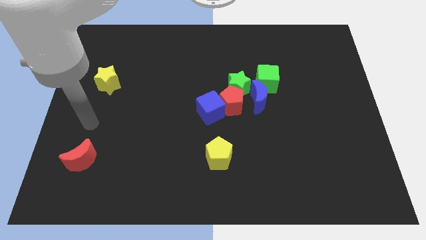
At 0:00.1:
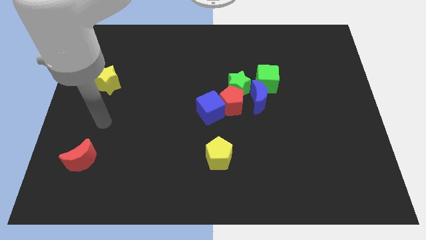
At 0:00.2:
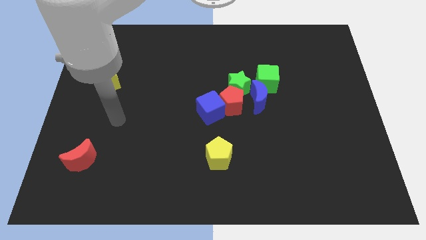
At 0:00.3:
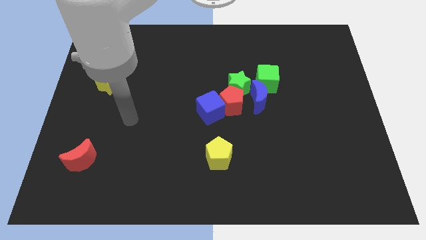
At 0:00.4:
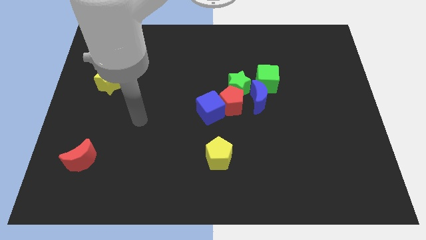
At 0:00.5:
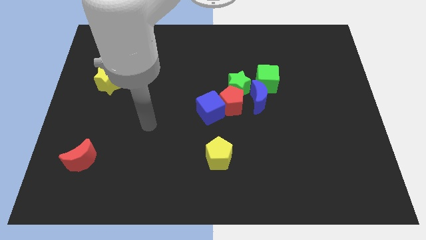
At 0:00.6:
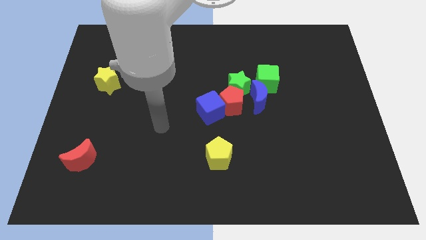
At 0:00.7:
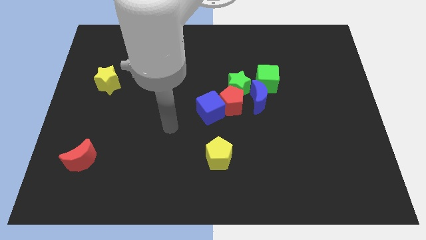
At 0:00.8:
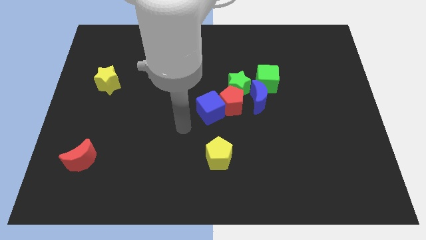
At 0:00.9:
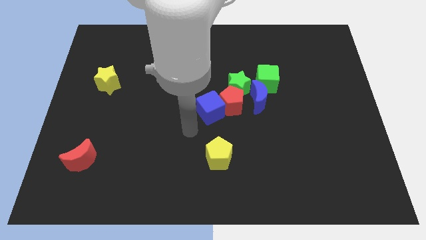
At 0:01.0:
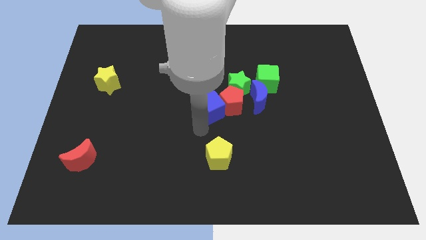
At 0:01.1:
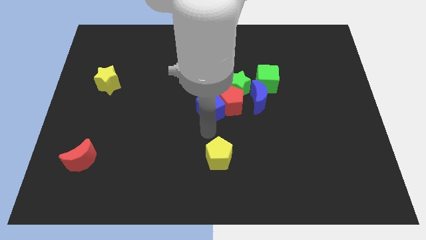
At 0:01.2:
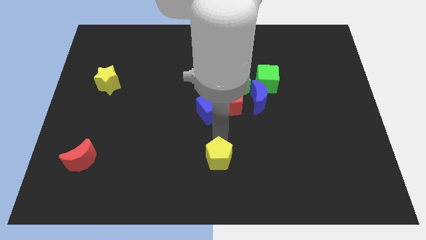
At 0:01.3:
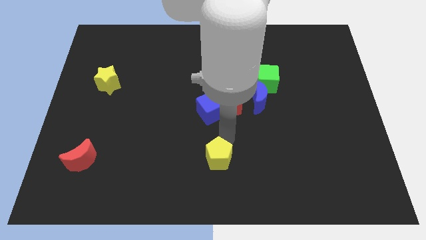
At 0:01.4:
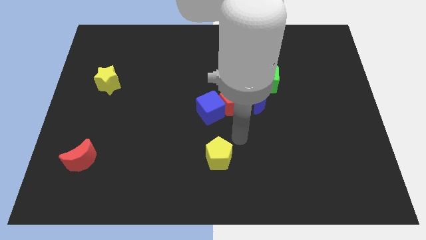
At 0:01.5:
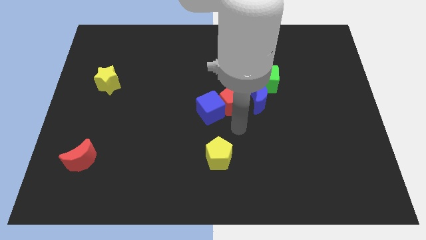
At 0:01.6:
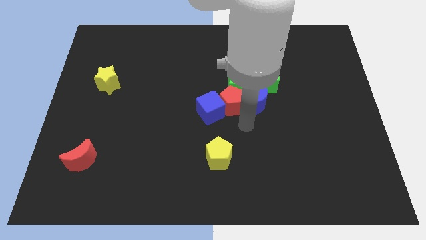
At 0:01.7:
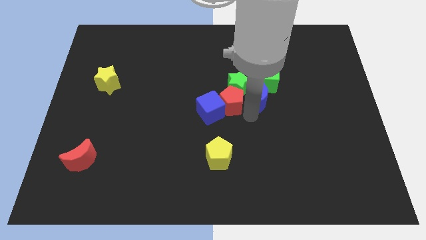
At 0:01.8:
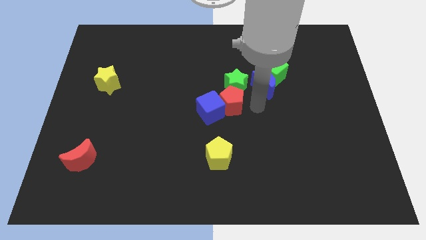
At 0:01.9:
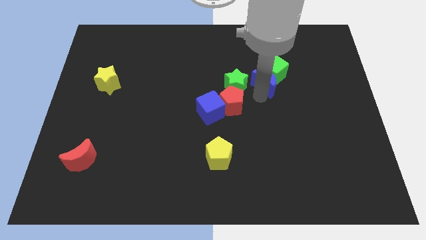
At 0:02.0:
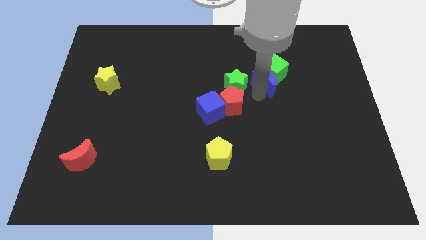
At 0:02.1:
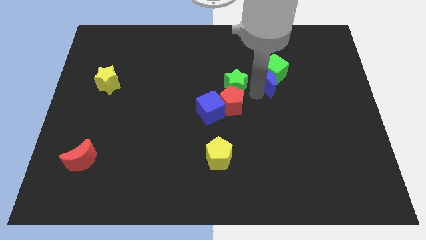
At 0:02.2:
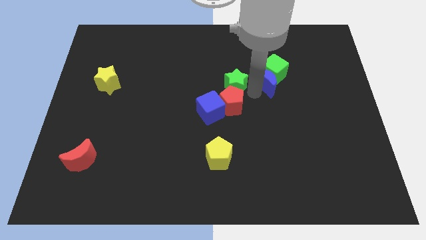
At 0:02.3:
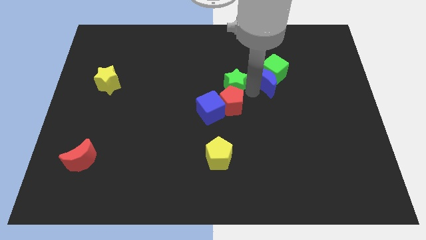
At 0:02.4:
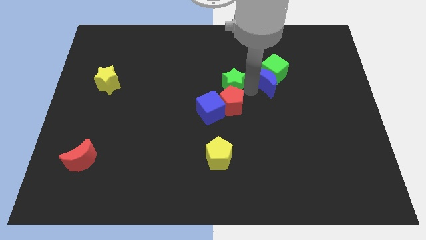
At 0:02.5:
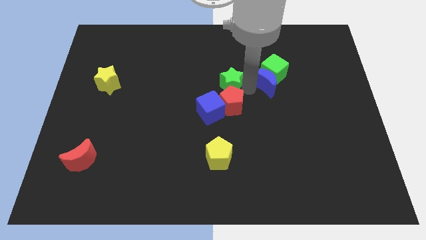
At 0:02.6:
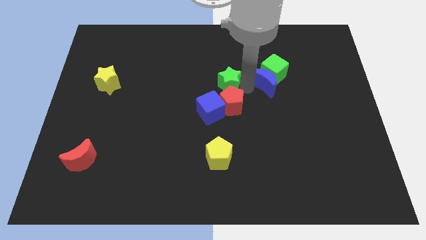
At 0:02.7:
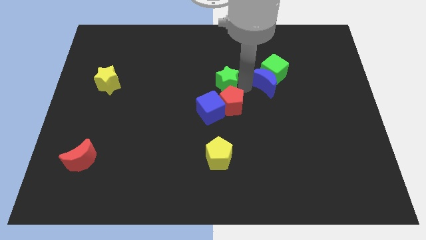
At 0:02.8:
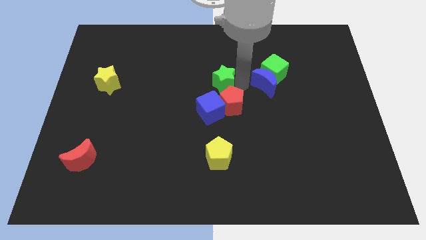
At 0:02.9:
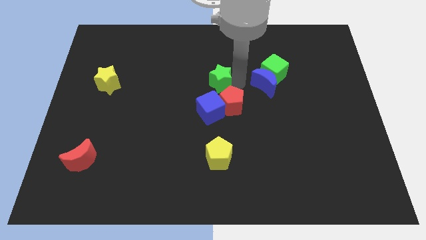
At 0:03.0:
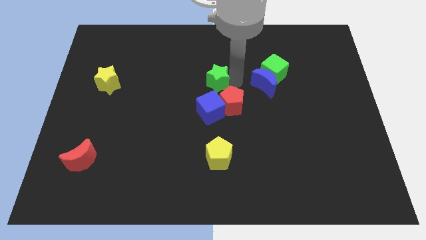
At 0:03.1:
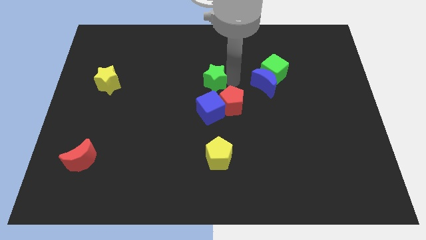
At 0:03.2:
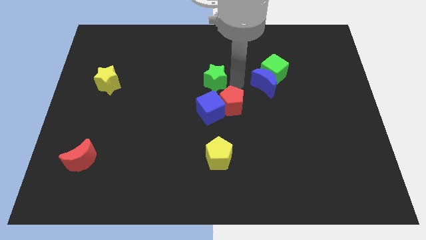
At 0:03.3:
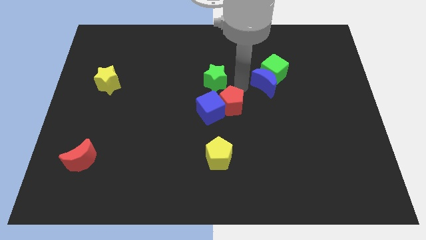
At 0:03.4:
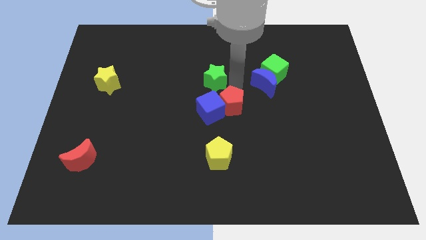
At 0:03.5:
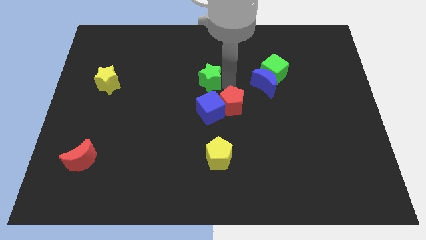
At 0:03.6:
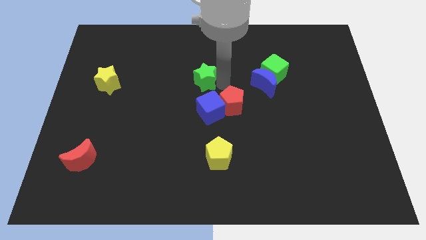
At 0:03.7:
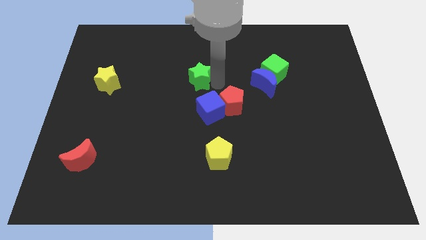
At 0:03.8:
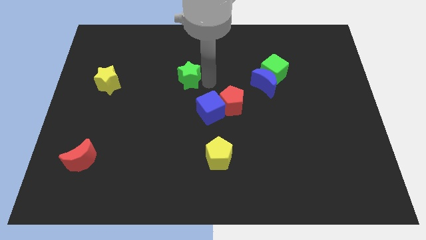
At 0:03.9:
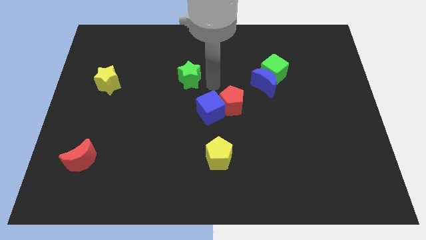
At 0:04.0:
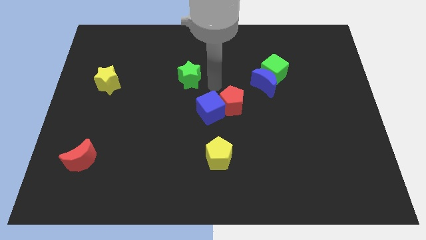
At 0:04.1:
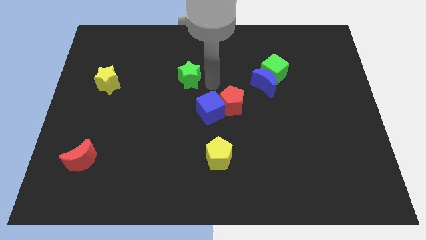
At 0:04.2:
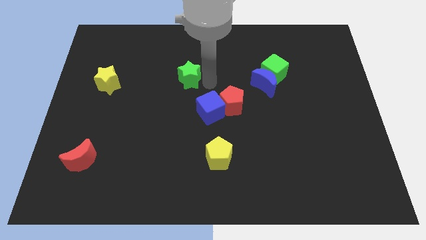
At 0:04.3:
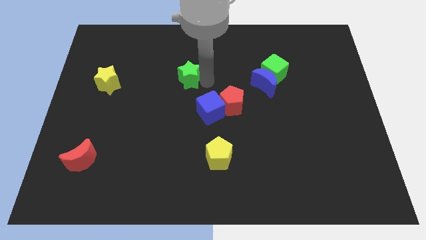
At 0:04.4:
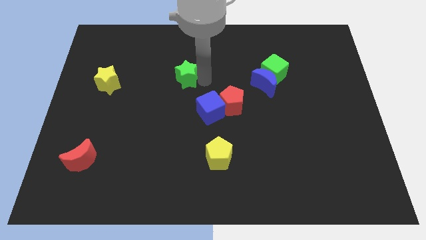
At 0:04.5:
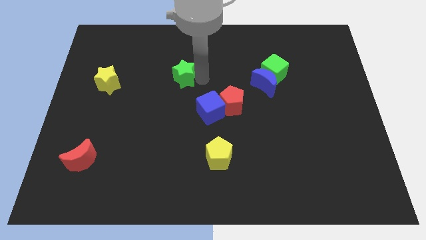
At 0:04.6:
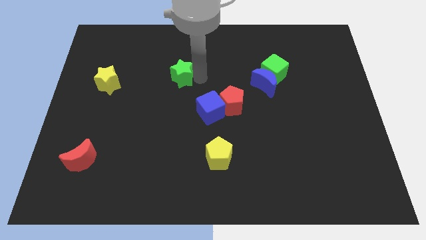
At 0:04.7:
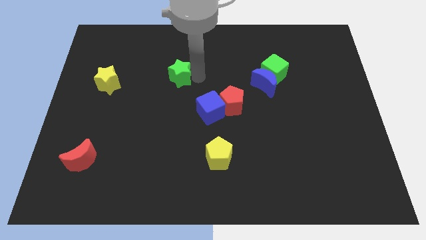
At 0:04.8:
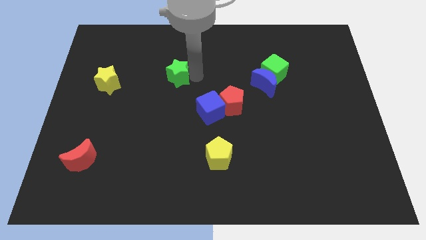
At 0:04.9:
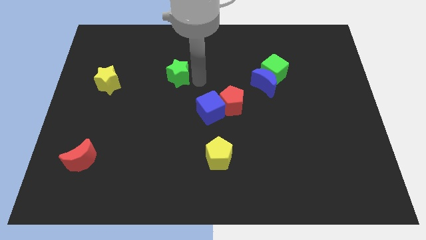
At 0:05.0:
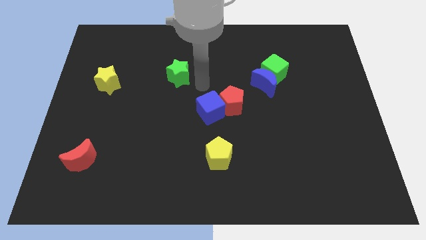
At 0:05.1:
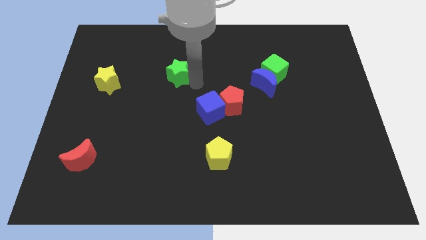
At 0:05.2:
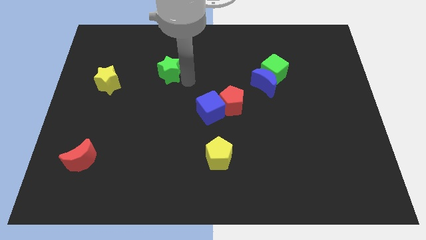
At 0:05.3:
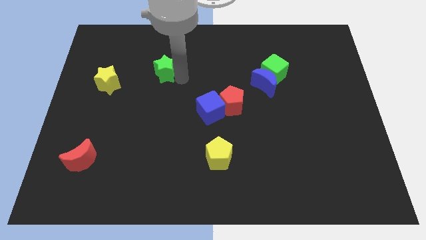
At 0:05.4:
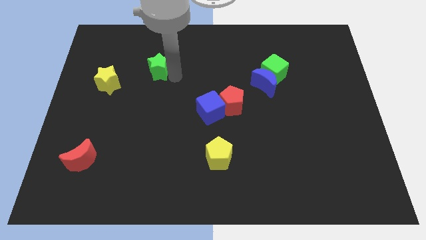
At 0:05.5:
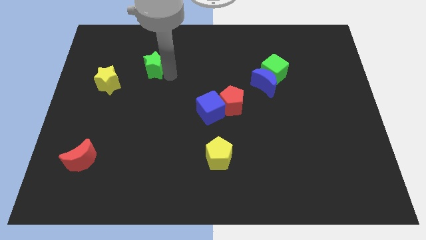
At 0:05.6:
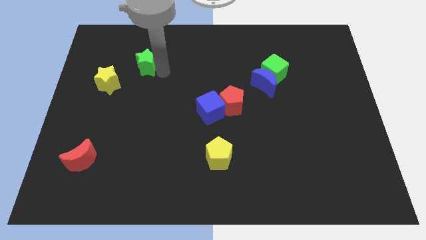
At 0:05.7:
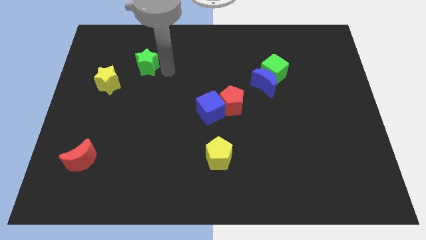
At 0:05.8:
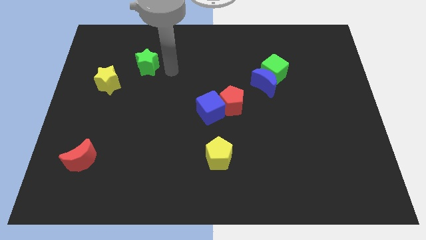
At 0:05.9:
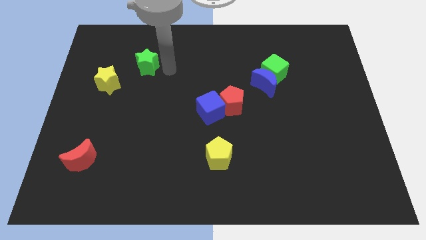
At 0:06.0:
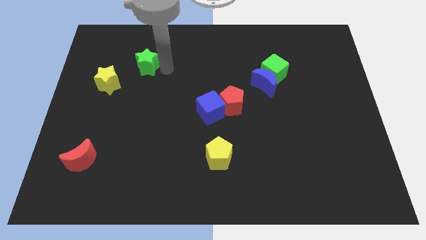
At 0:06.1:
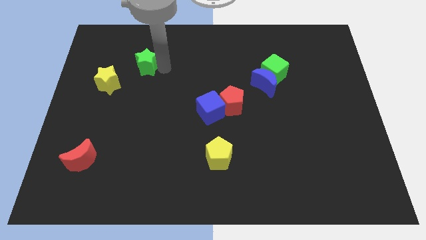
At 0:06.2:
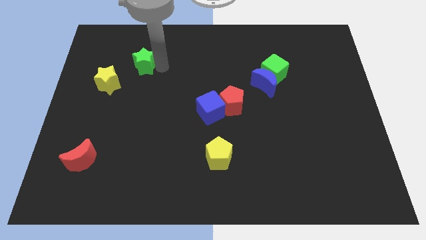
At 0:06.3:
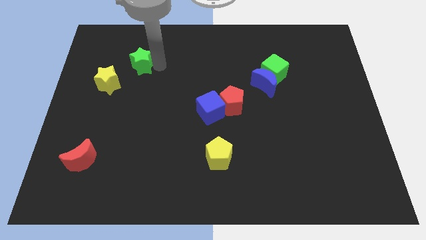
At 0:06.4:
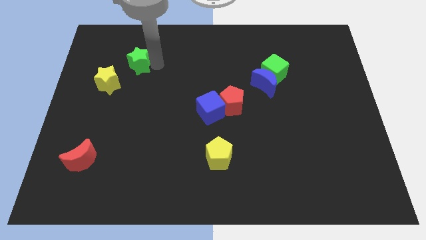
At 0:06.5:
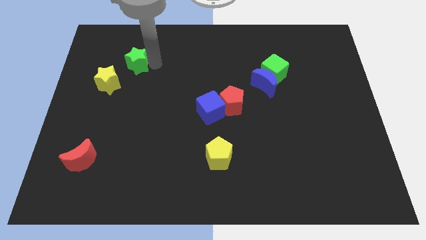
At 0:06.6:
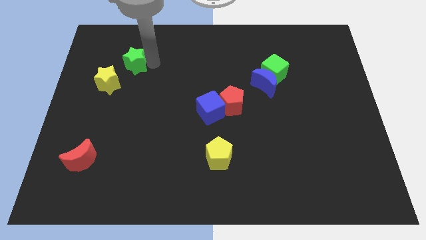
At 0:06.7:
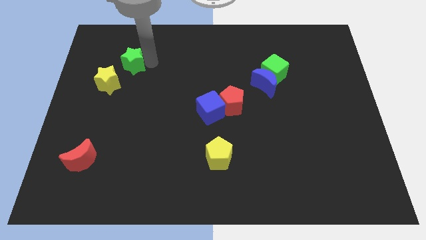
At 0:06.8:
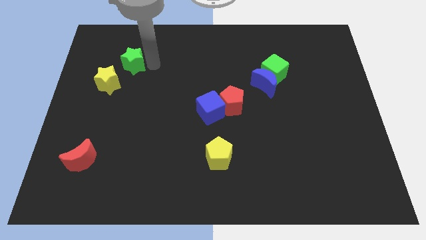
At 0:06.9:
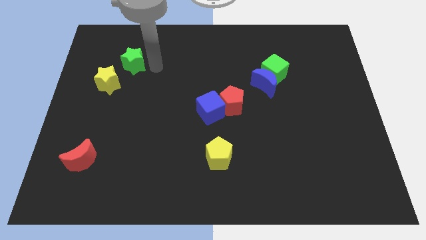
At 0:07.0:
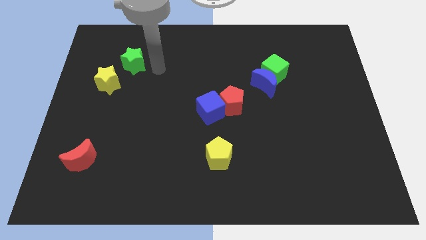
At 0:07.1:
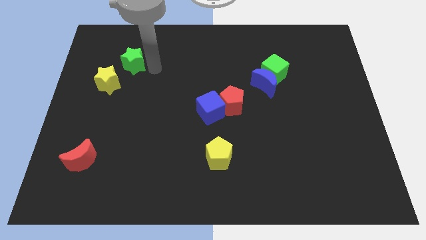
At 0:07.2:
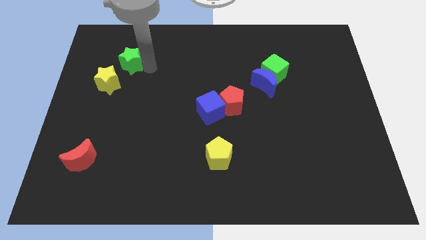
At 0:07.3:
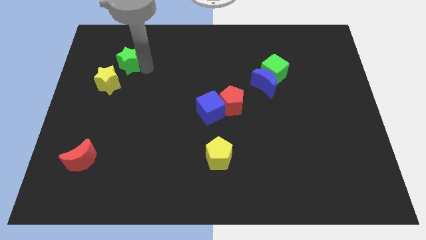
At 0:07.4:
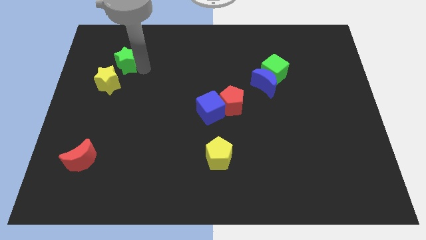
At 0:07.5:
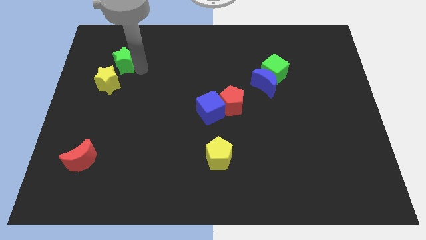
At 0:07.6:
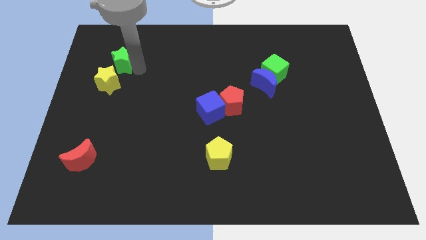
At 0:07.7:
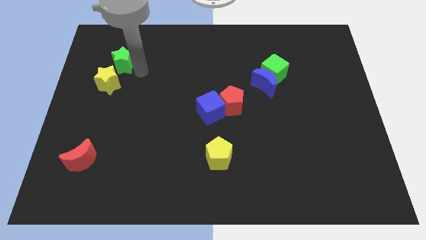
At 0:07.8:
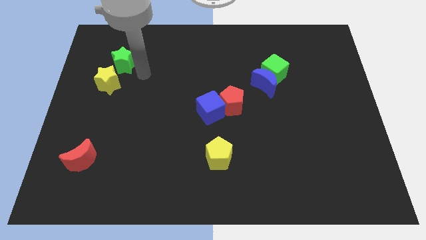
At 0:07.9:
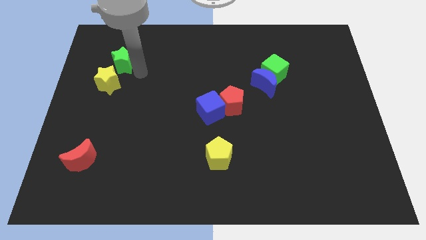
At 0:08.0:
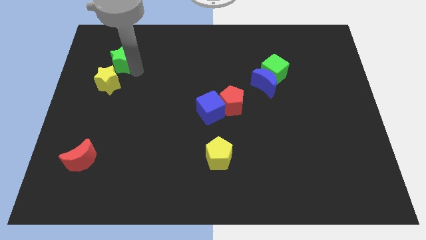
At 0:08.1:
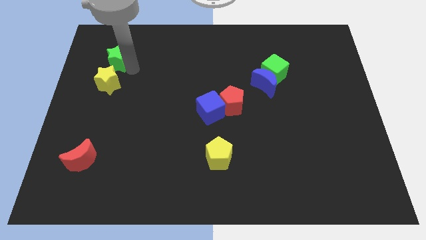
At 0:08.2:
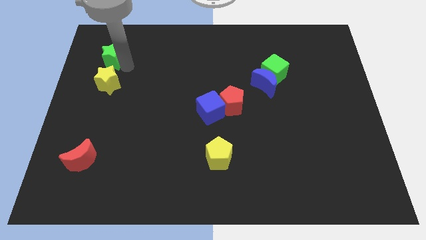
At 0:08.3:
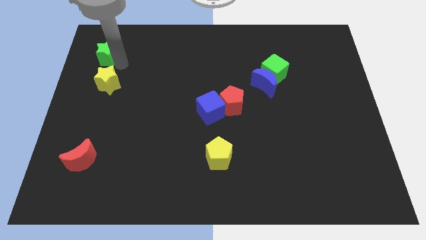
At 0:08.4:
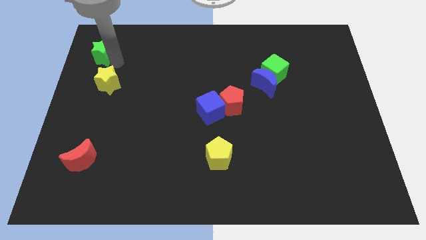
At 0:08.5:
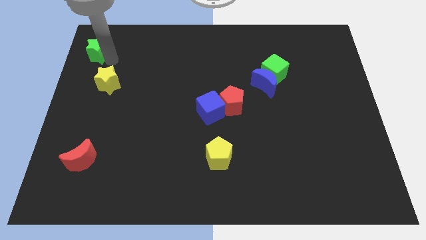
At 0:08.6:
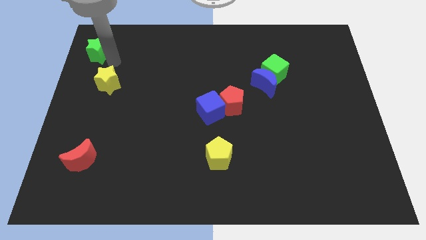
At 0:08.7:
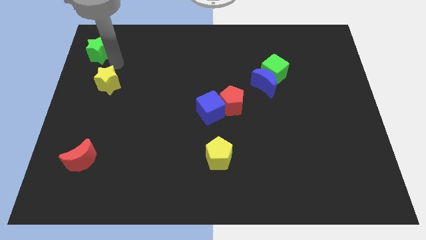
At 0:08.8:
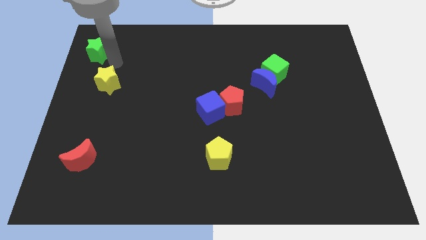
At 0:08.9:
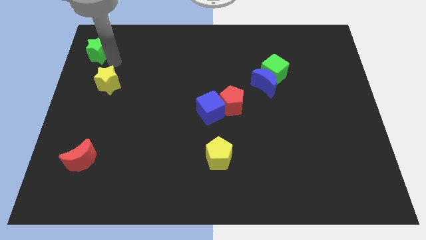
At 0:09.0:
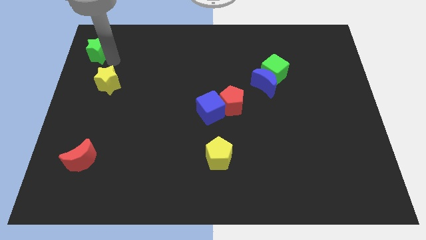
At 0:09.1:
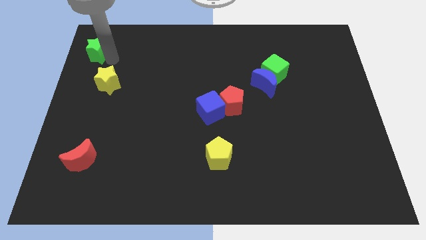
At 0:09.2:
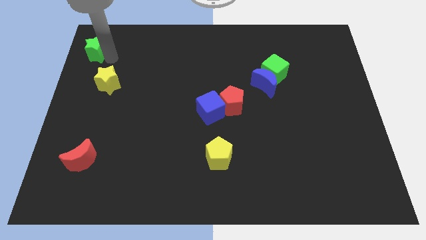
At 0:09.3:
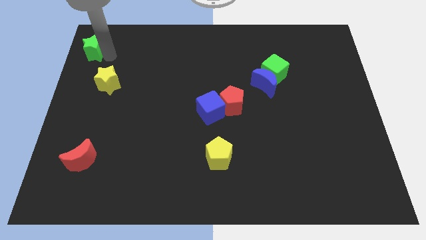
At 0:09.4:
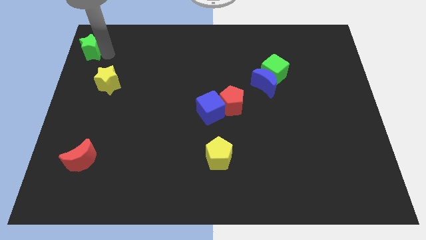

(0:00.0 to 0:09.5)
put the green star to the top left of the board
